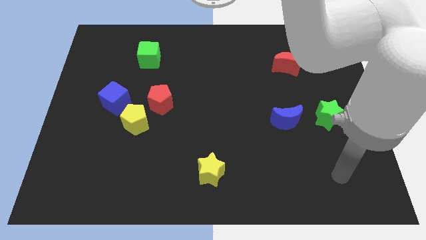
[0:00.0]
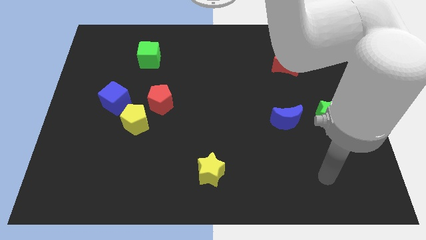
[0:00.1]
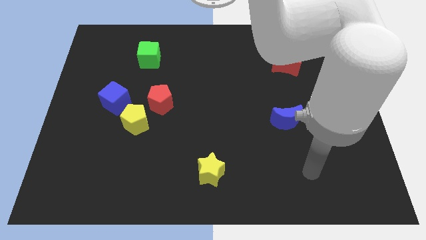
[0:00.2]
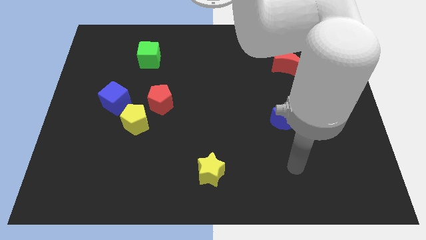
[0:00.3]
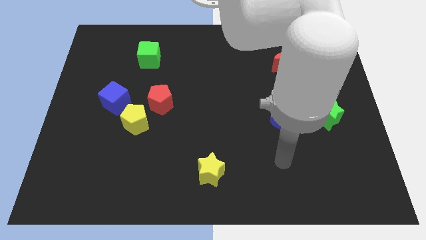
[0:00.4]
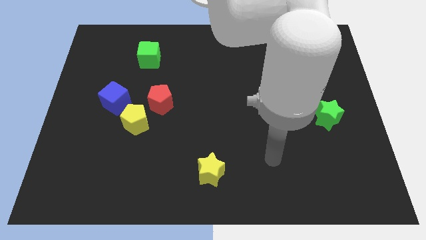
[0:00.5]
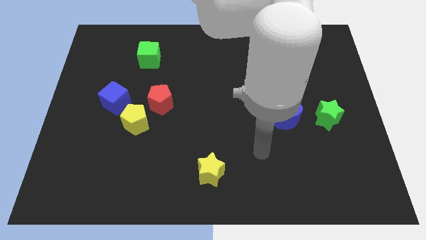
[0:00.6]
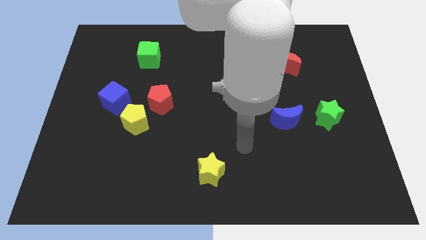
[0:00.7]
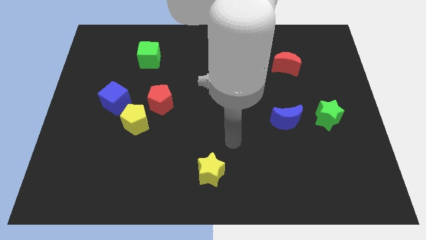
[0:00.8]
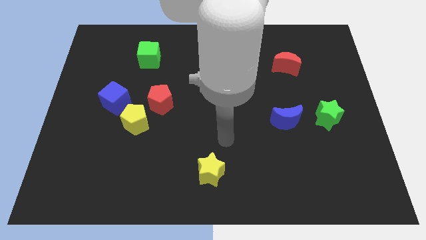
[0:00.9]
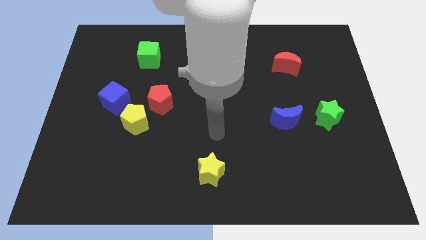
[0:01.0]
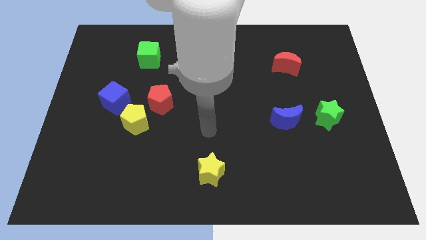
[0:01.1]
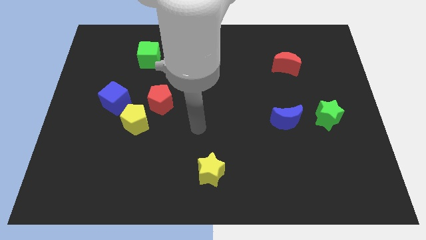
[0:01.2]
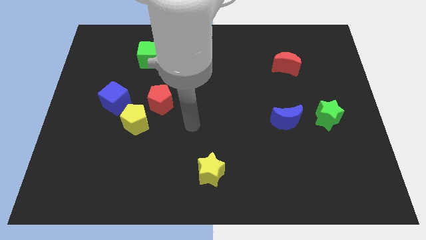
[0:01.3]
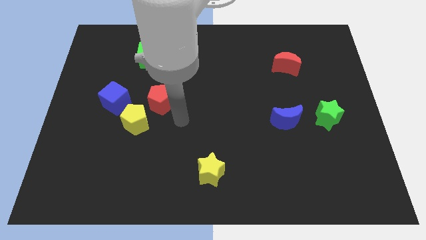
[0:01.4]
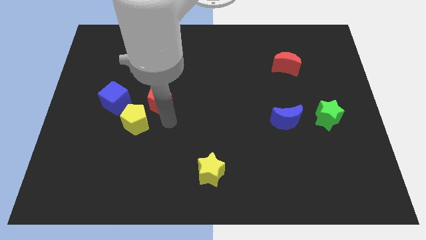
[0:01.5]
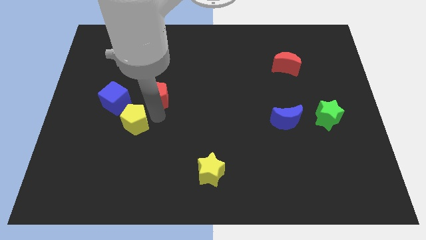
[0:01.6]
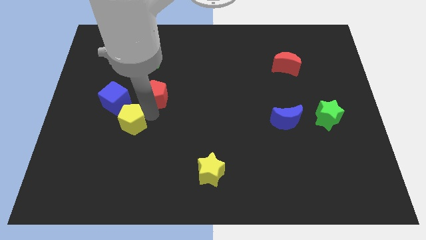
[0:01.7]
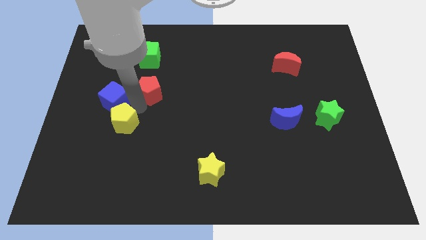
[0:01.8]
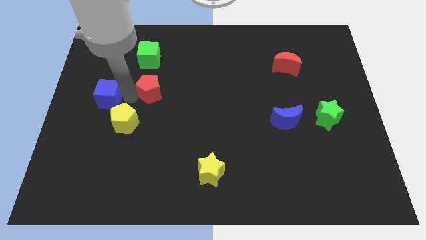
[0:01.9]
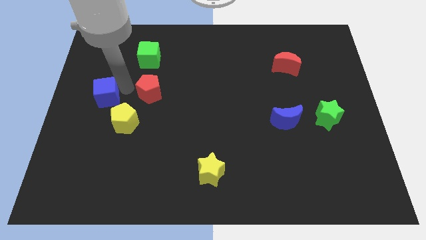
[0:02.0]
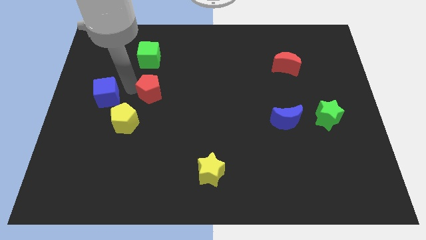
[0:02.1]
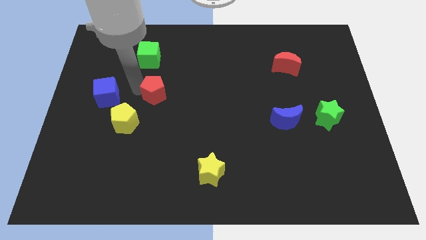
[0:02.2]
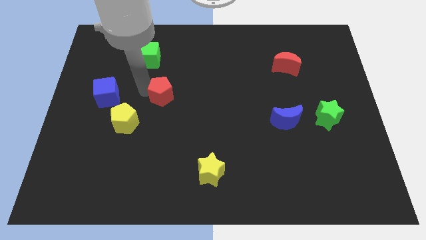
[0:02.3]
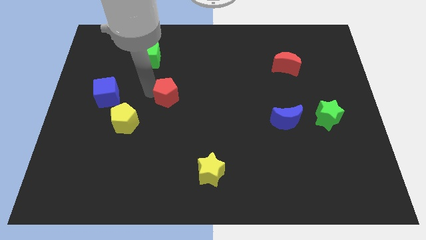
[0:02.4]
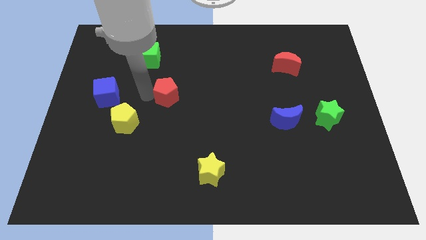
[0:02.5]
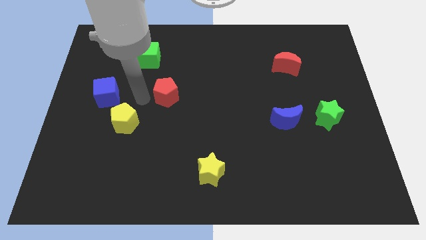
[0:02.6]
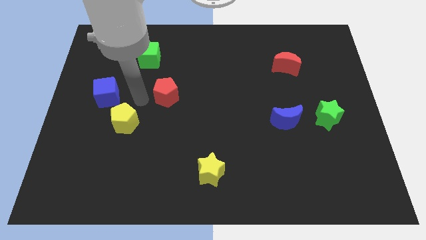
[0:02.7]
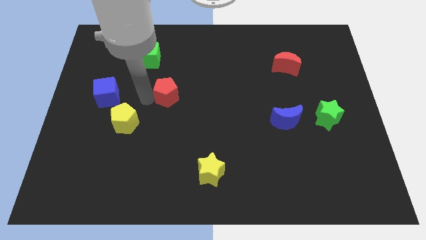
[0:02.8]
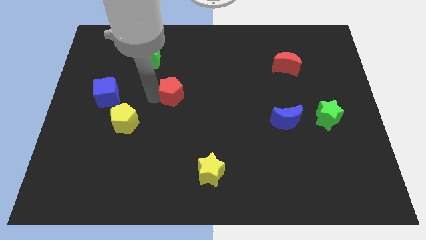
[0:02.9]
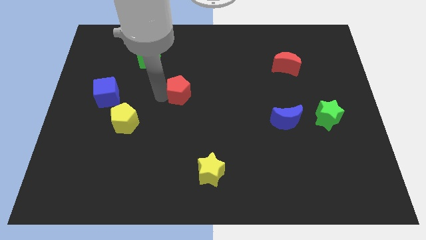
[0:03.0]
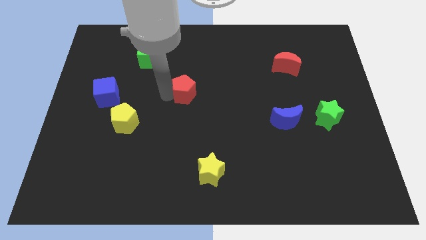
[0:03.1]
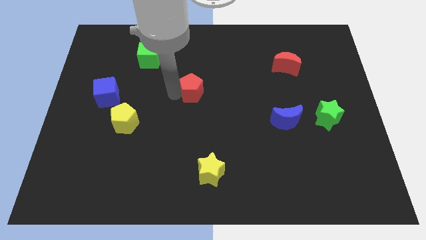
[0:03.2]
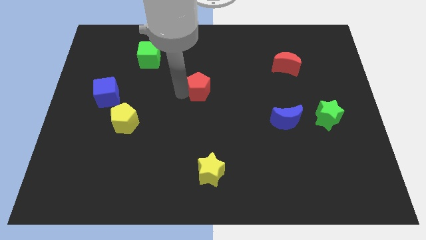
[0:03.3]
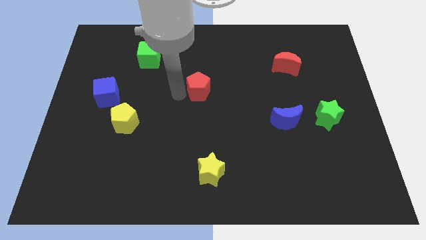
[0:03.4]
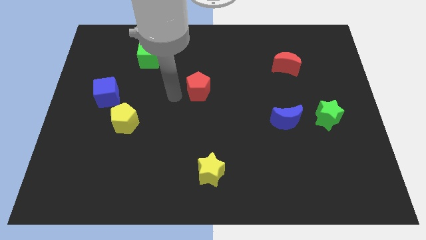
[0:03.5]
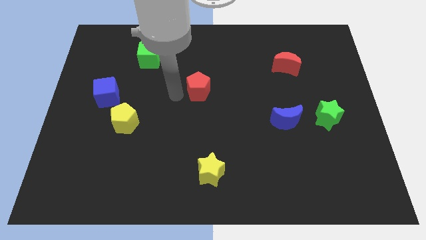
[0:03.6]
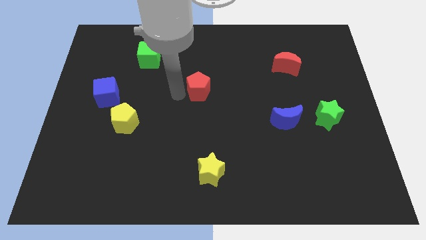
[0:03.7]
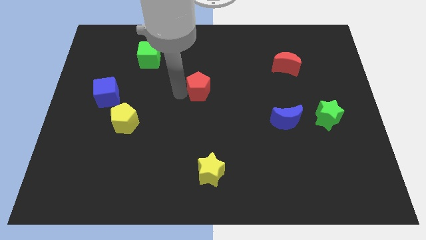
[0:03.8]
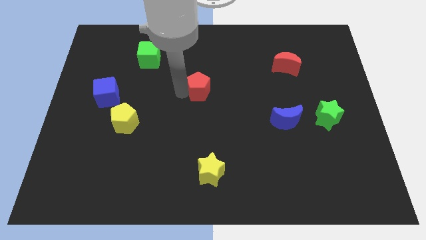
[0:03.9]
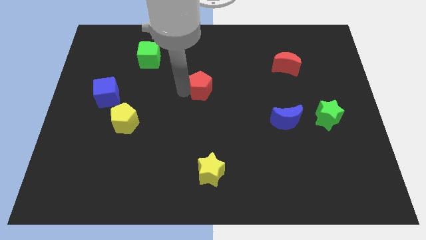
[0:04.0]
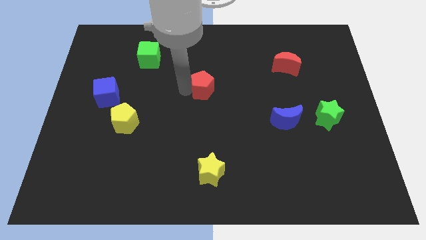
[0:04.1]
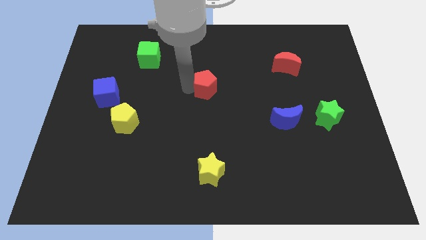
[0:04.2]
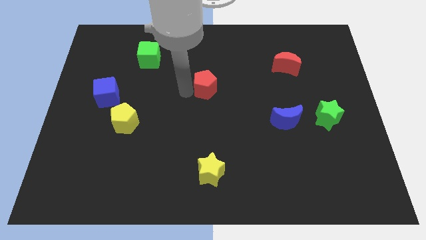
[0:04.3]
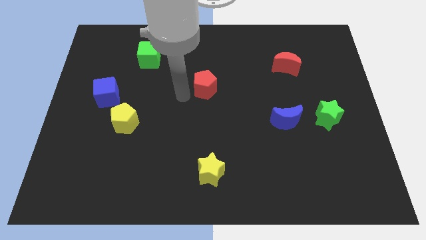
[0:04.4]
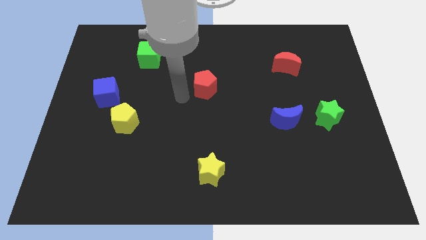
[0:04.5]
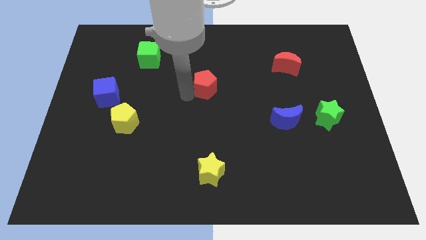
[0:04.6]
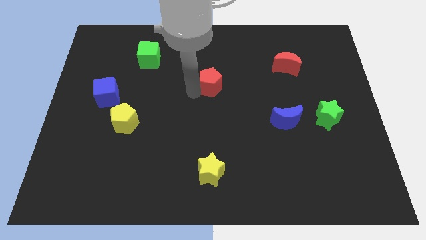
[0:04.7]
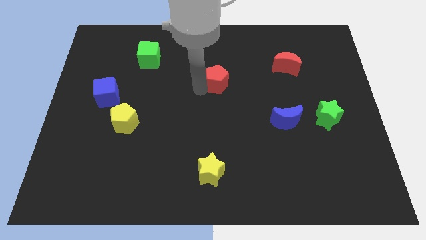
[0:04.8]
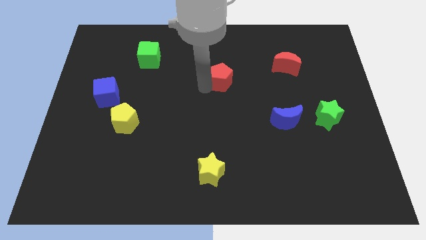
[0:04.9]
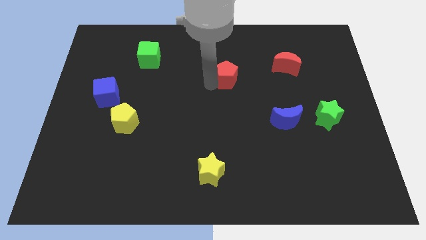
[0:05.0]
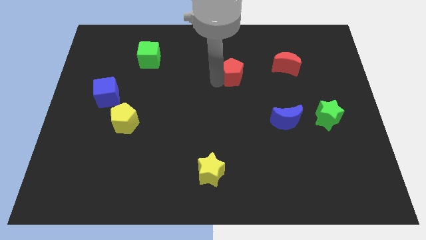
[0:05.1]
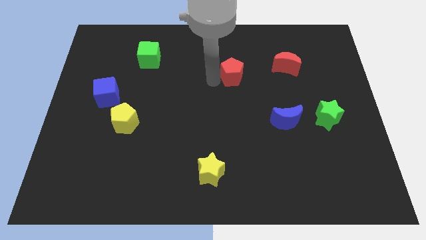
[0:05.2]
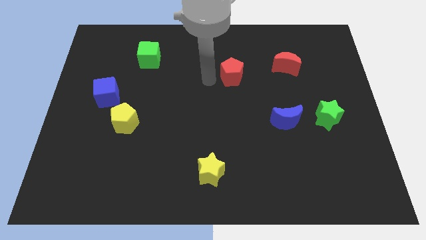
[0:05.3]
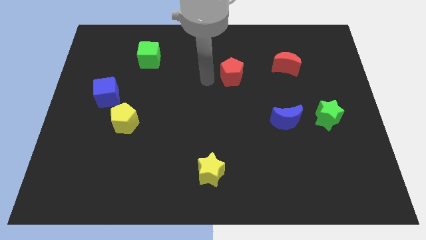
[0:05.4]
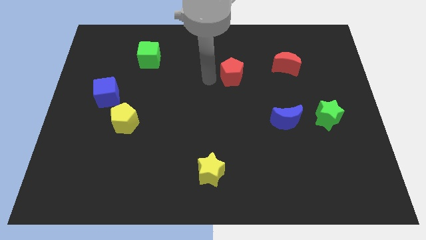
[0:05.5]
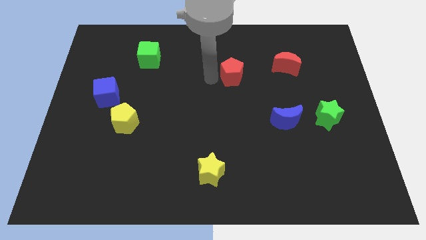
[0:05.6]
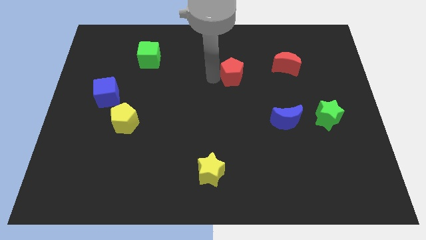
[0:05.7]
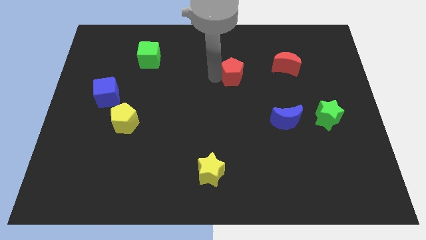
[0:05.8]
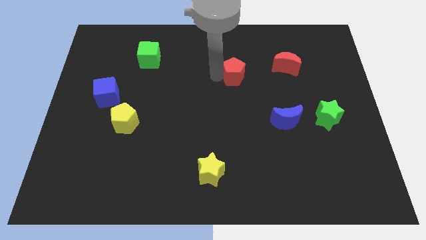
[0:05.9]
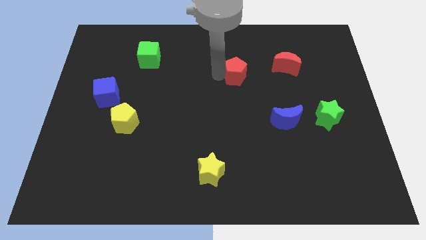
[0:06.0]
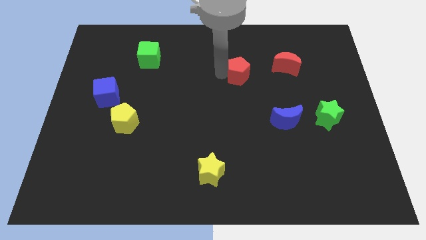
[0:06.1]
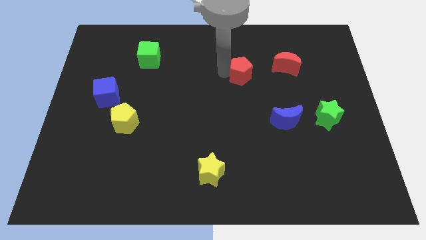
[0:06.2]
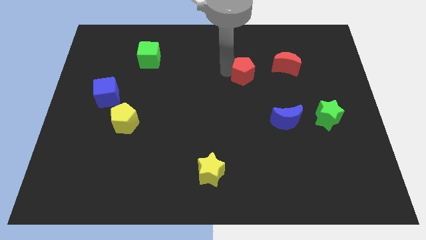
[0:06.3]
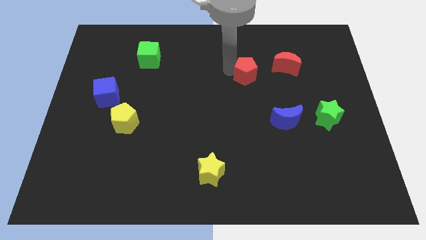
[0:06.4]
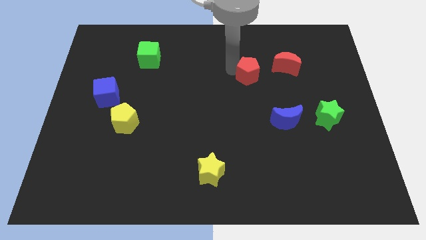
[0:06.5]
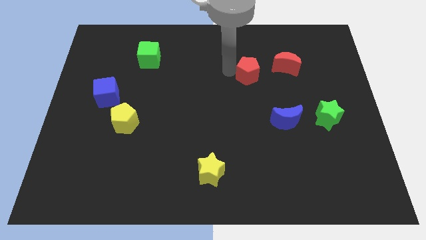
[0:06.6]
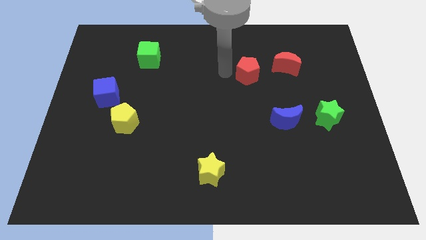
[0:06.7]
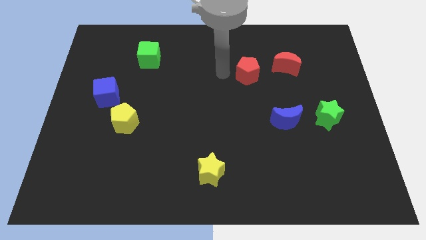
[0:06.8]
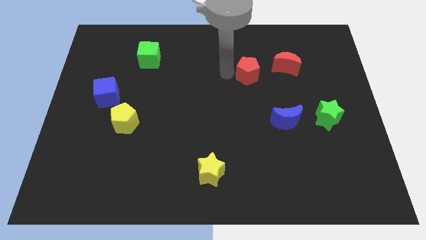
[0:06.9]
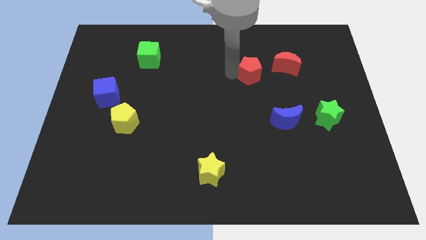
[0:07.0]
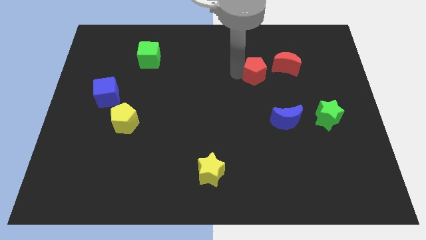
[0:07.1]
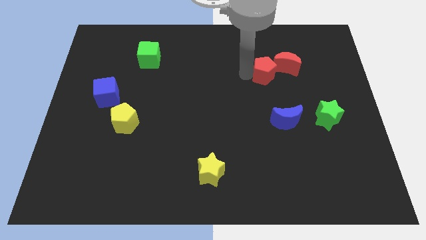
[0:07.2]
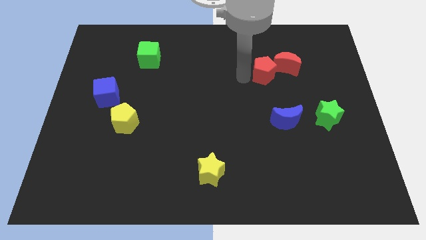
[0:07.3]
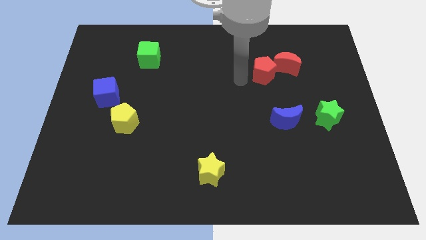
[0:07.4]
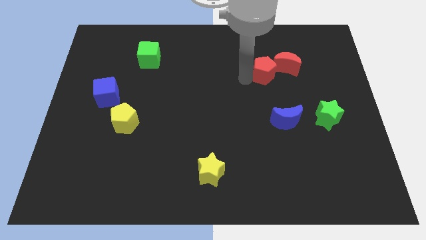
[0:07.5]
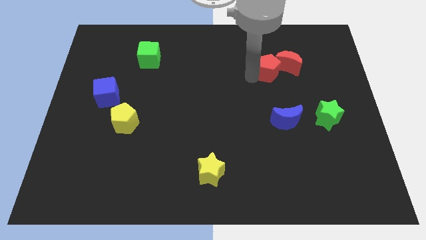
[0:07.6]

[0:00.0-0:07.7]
slide the red pentagon next to the red moon
